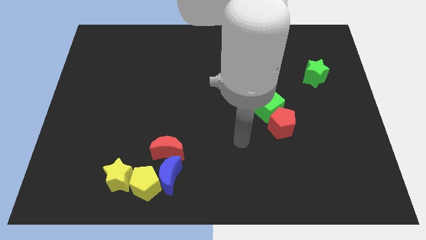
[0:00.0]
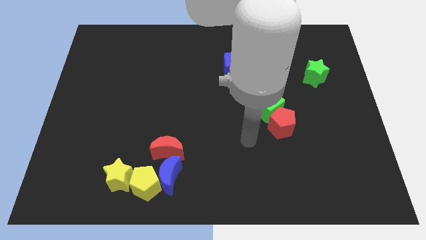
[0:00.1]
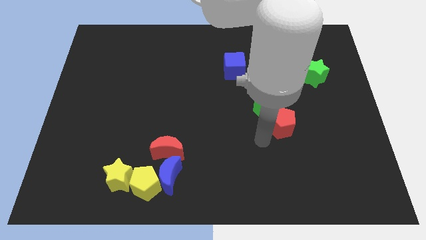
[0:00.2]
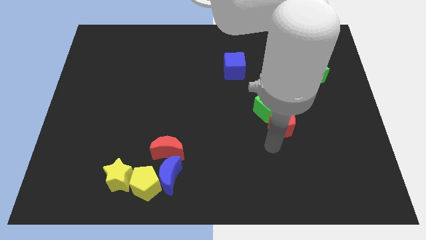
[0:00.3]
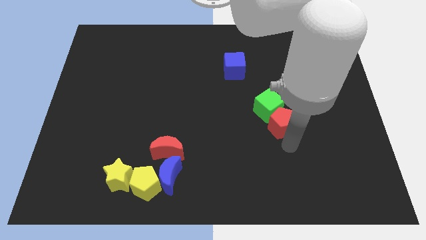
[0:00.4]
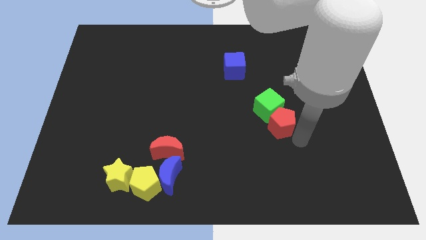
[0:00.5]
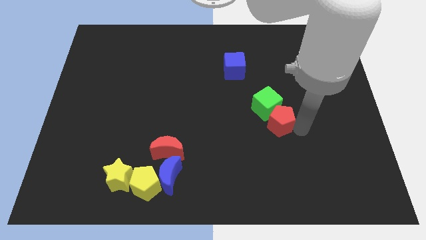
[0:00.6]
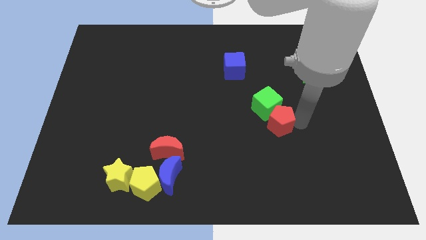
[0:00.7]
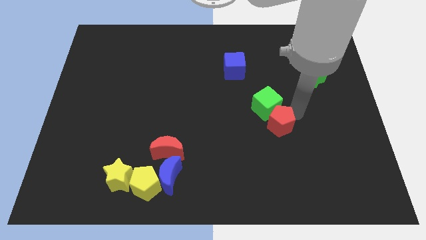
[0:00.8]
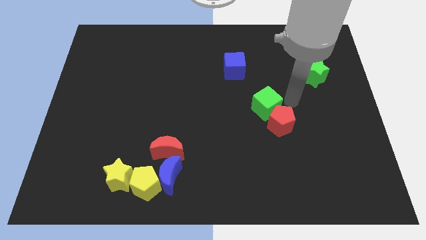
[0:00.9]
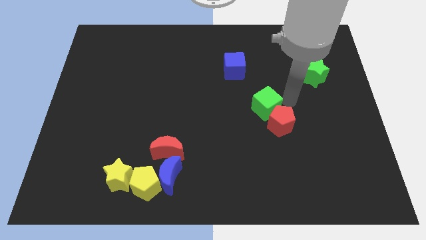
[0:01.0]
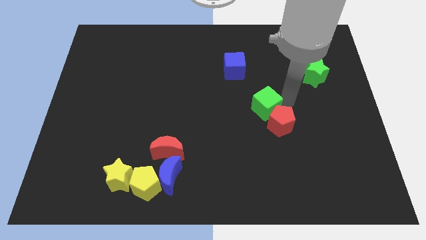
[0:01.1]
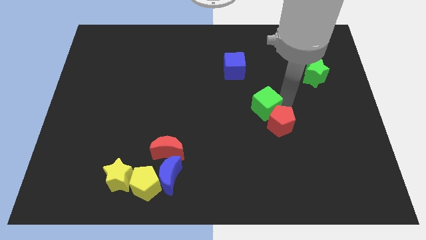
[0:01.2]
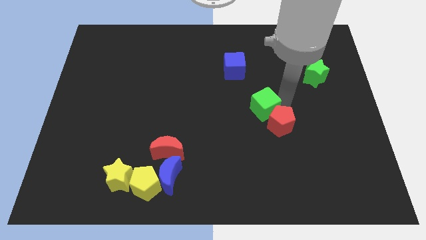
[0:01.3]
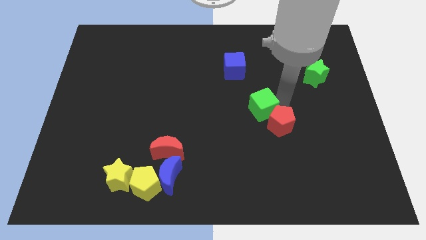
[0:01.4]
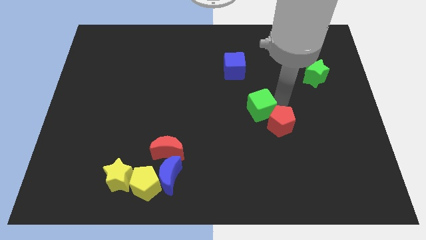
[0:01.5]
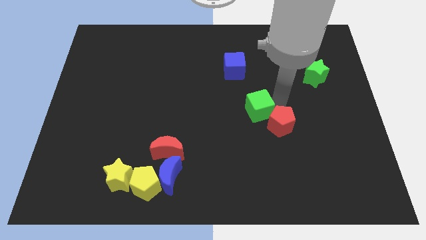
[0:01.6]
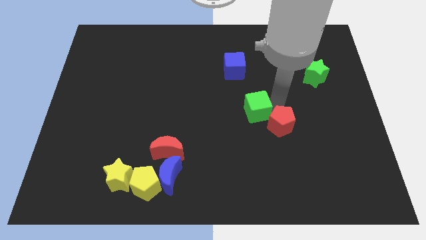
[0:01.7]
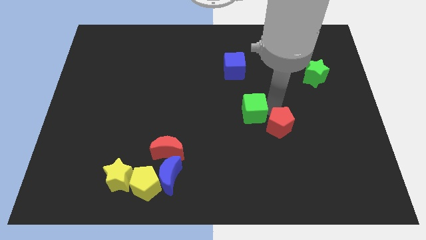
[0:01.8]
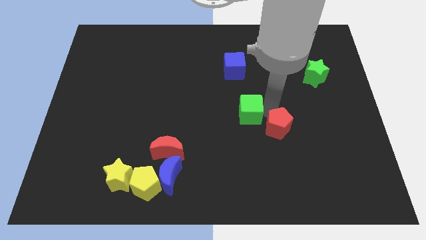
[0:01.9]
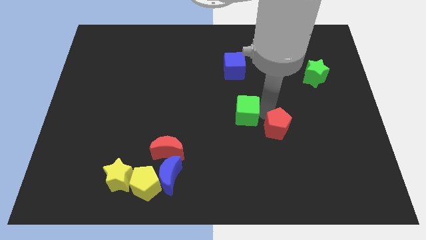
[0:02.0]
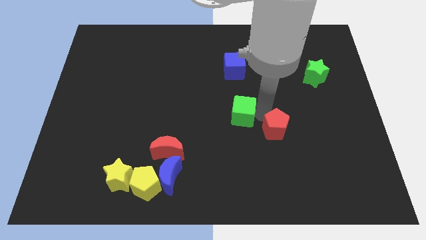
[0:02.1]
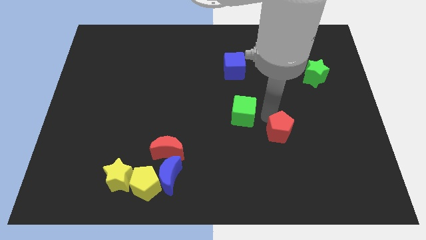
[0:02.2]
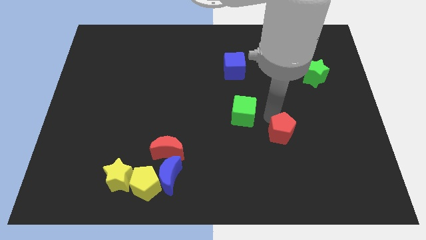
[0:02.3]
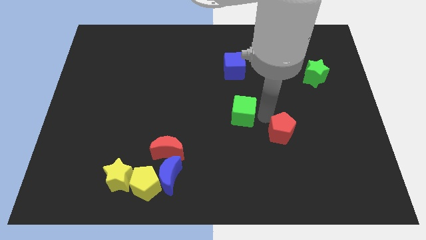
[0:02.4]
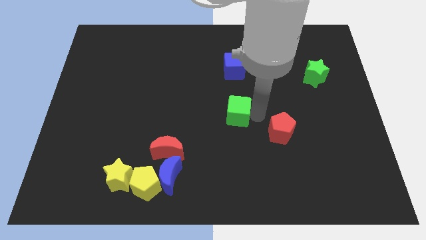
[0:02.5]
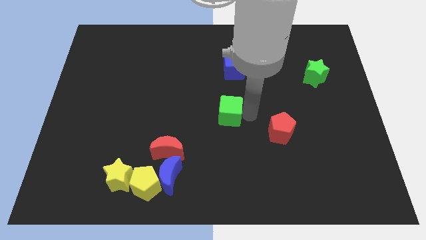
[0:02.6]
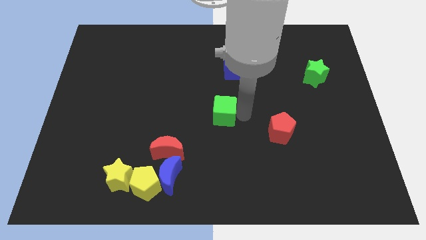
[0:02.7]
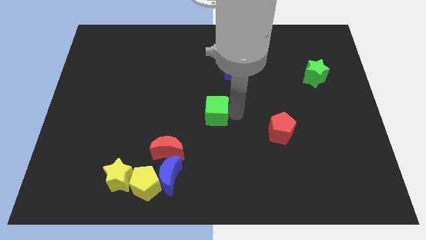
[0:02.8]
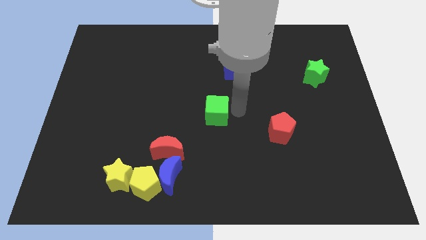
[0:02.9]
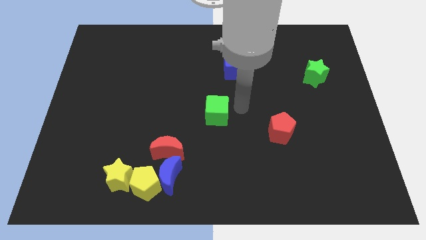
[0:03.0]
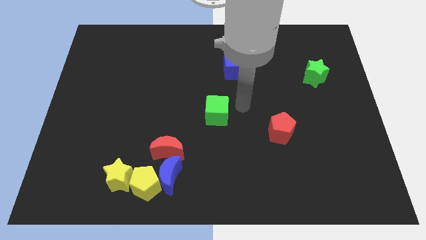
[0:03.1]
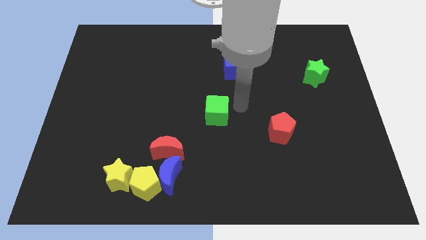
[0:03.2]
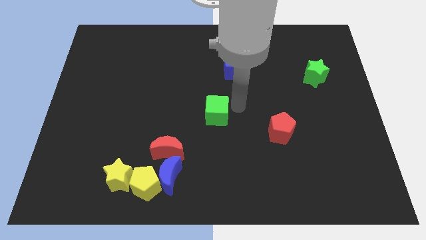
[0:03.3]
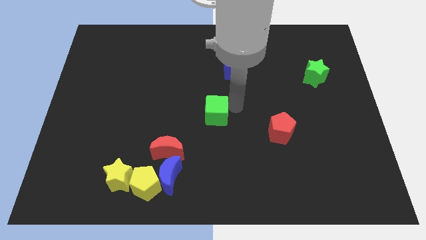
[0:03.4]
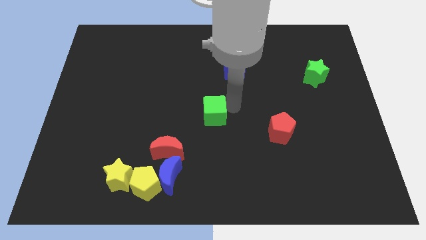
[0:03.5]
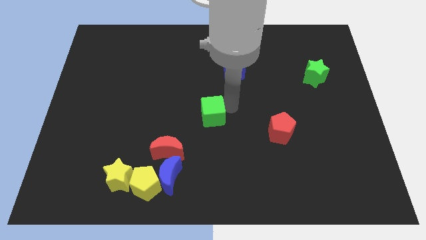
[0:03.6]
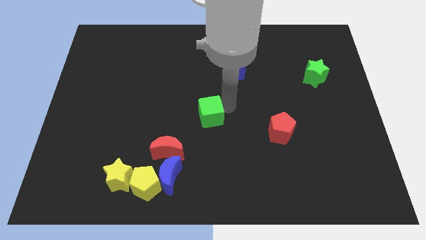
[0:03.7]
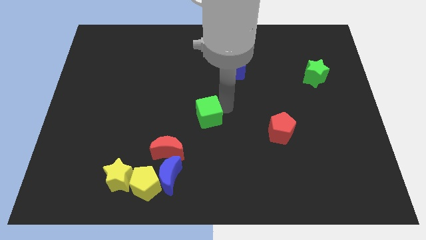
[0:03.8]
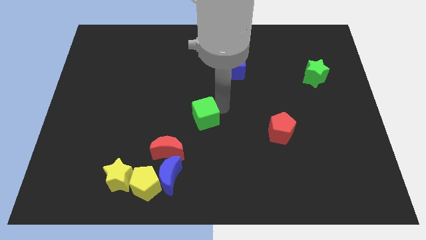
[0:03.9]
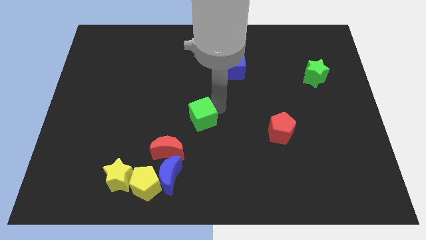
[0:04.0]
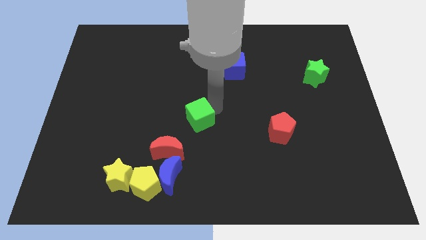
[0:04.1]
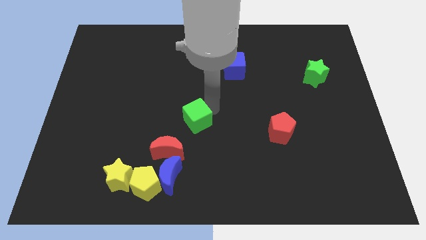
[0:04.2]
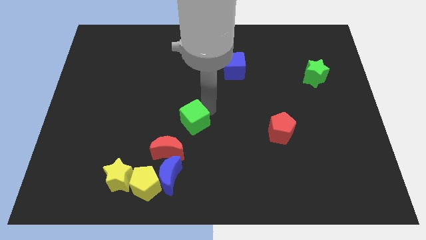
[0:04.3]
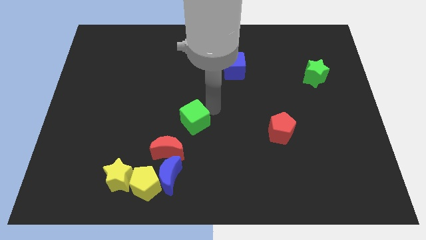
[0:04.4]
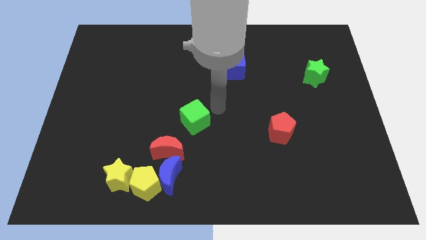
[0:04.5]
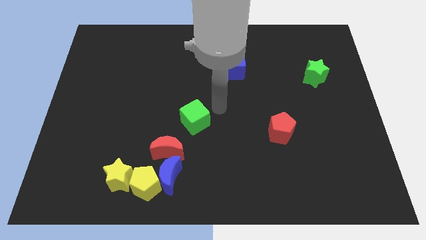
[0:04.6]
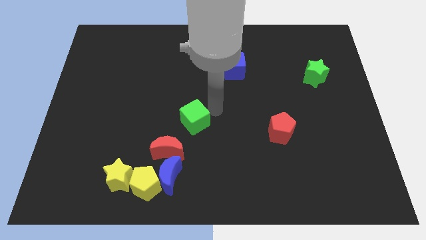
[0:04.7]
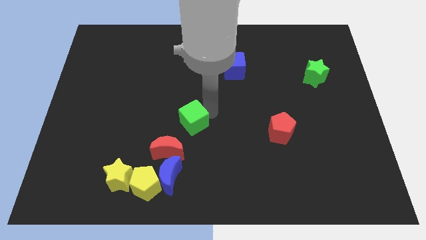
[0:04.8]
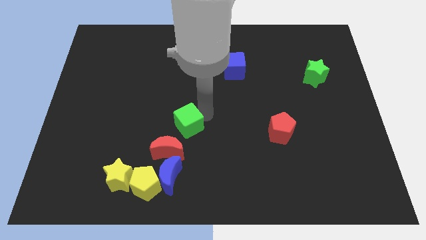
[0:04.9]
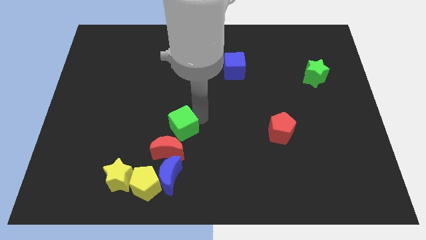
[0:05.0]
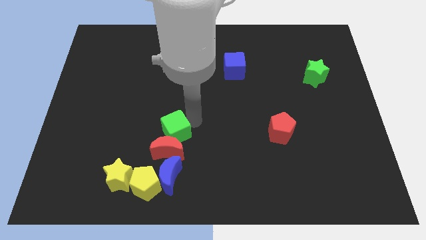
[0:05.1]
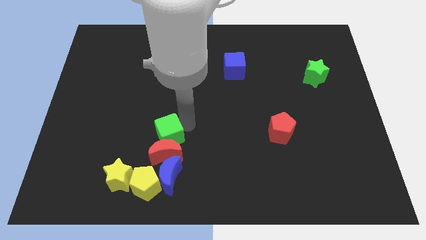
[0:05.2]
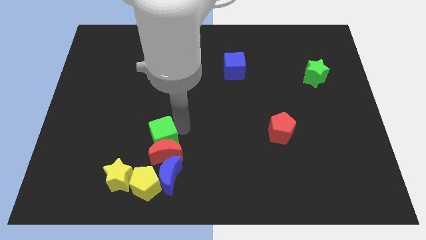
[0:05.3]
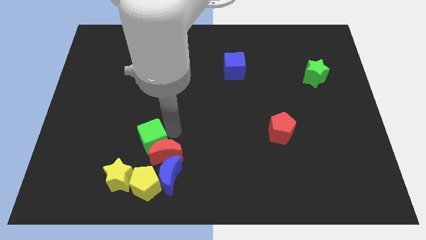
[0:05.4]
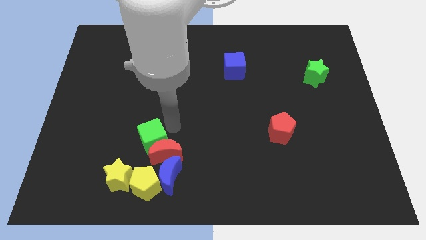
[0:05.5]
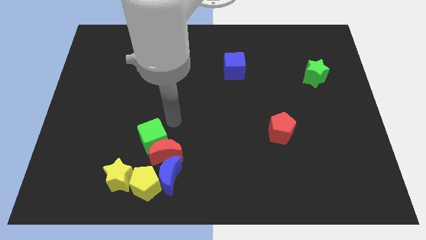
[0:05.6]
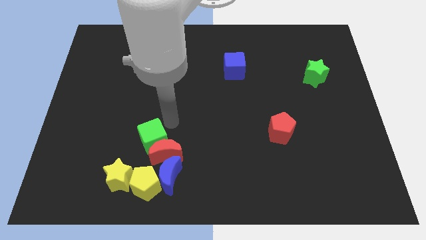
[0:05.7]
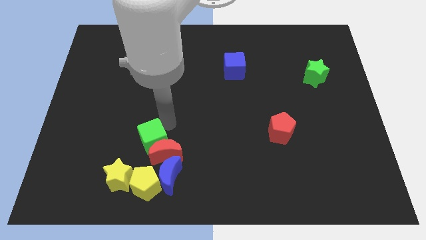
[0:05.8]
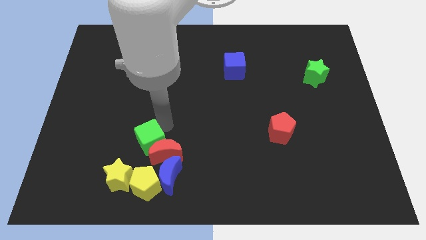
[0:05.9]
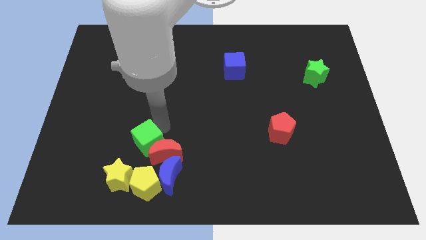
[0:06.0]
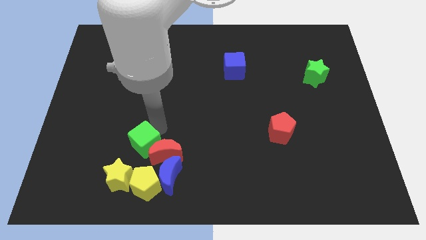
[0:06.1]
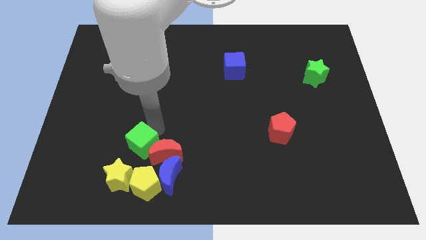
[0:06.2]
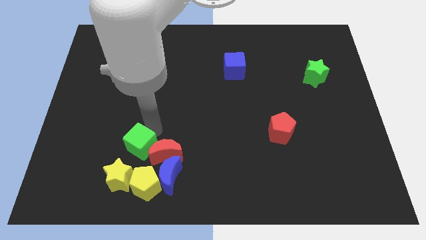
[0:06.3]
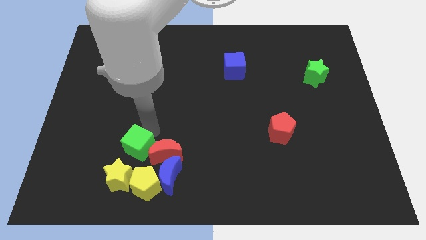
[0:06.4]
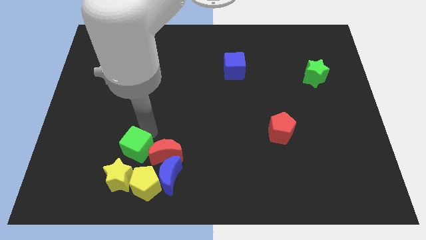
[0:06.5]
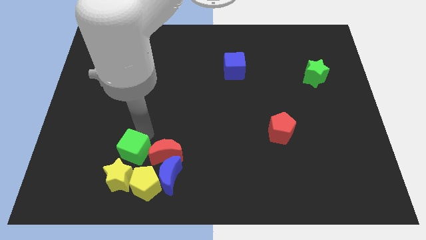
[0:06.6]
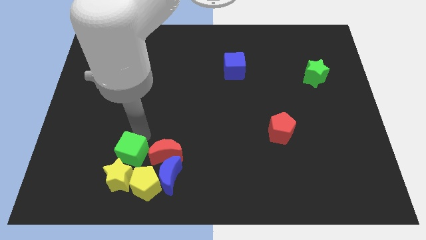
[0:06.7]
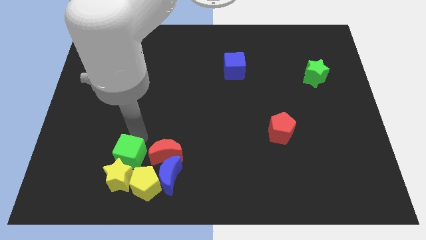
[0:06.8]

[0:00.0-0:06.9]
push the green cube towards the yellow star

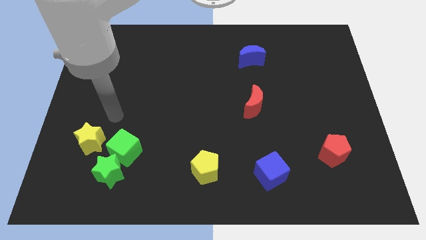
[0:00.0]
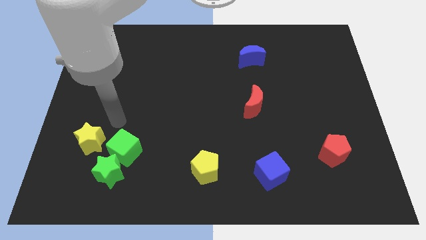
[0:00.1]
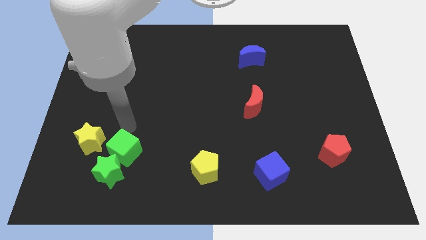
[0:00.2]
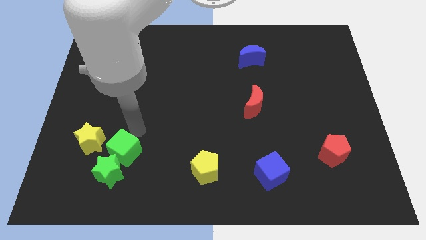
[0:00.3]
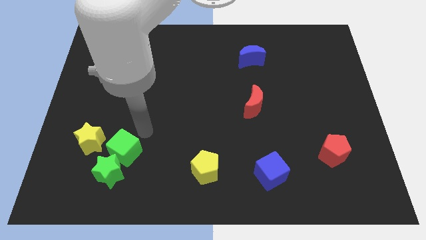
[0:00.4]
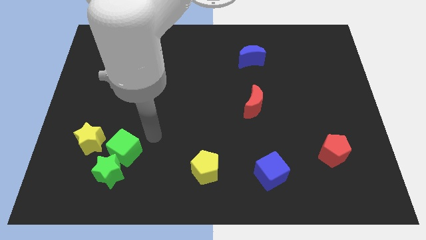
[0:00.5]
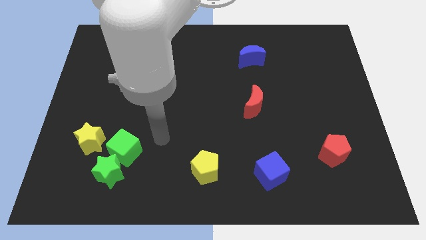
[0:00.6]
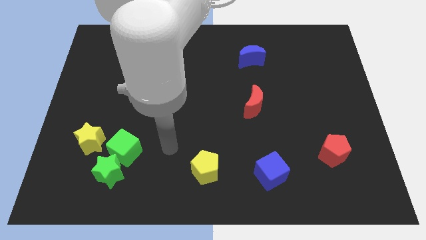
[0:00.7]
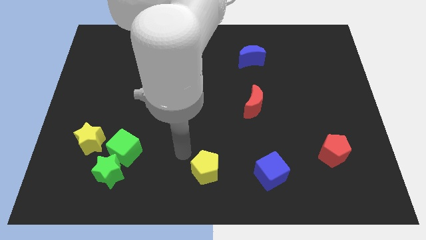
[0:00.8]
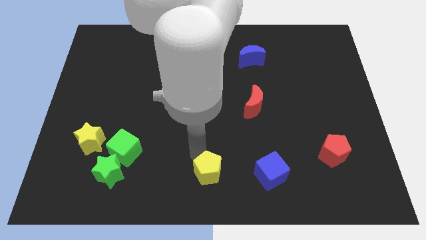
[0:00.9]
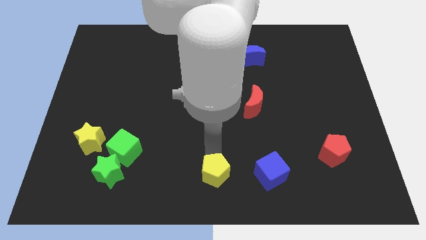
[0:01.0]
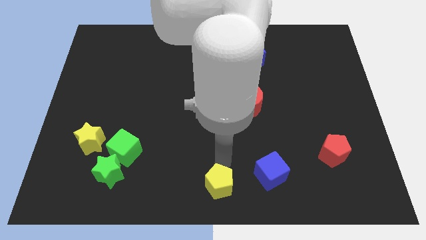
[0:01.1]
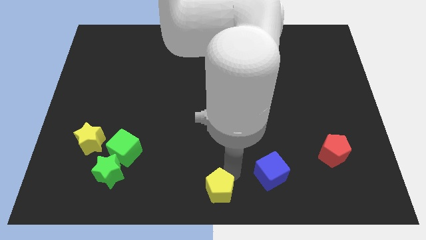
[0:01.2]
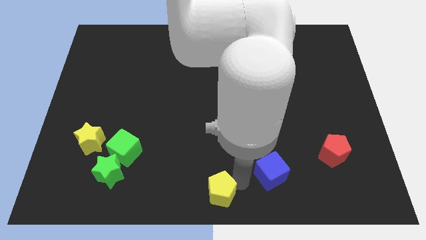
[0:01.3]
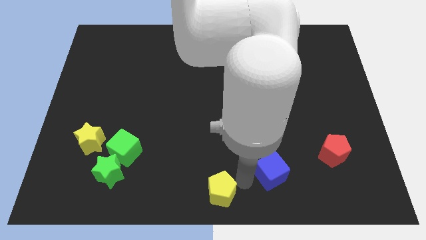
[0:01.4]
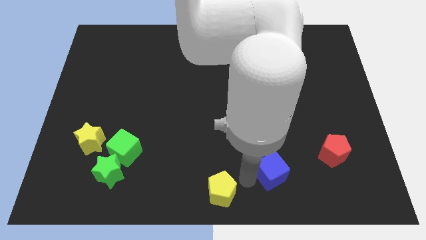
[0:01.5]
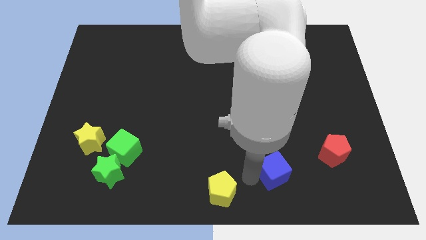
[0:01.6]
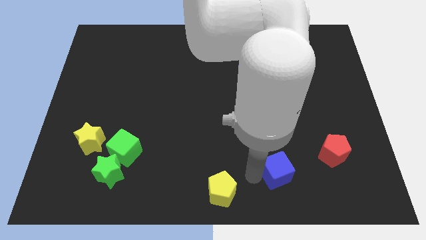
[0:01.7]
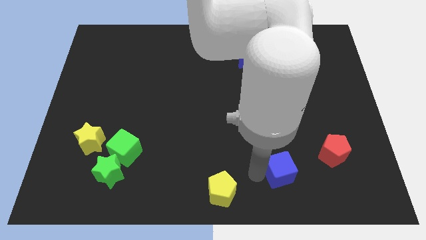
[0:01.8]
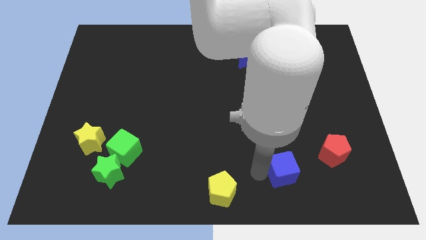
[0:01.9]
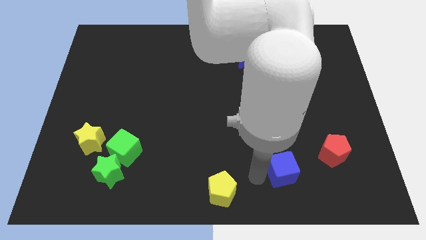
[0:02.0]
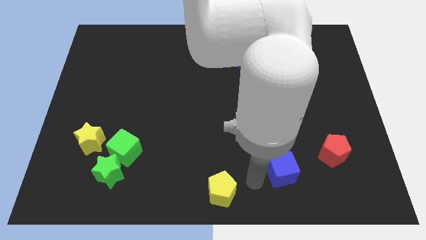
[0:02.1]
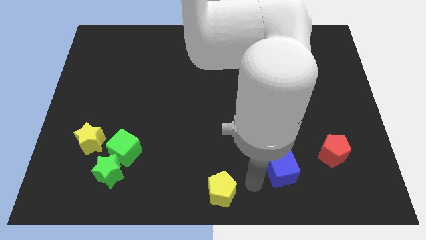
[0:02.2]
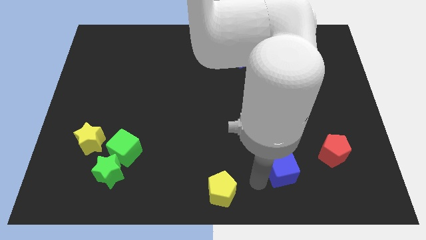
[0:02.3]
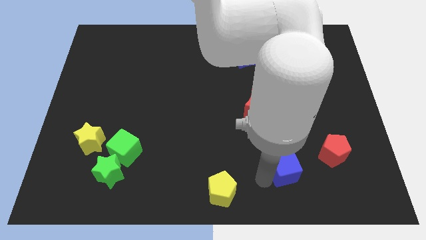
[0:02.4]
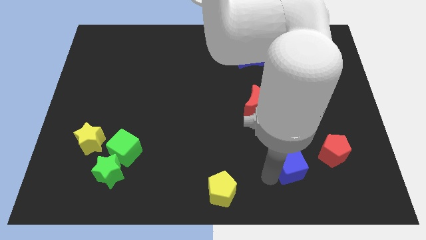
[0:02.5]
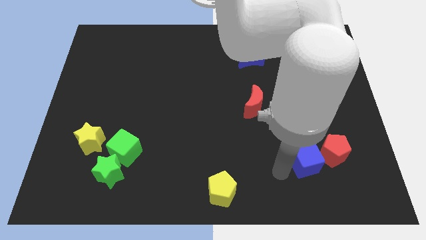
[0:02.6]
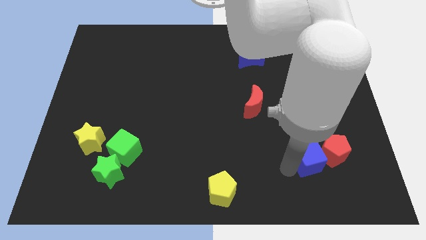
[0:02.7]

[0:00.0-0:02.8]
push the blue cube towards the red pentagon
